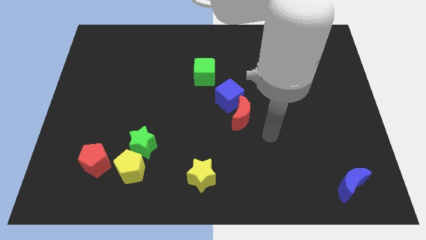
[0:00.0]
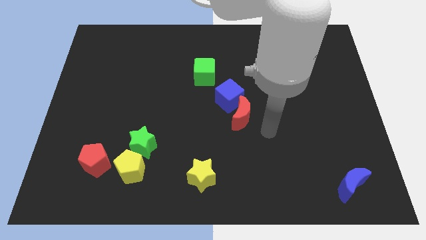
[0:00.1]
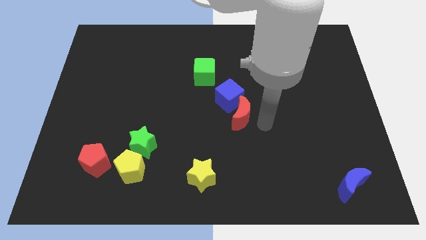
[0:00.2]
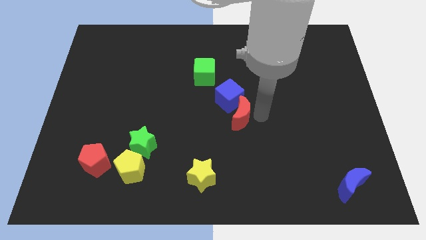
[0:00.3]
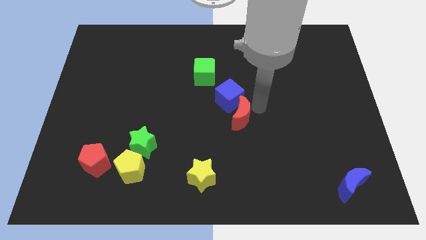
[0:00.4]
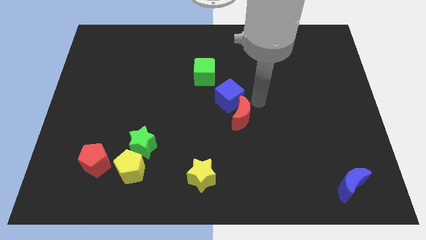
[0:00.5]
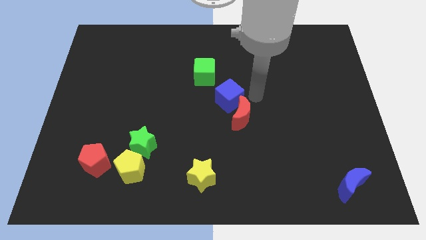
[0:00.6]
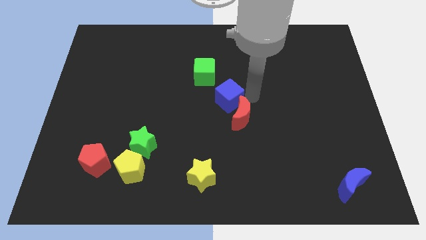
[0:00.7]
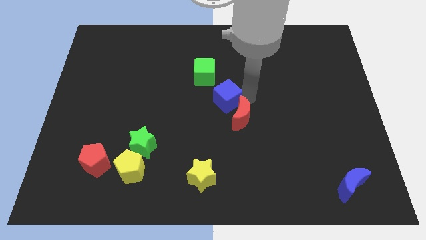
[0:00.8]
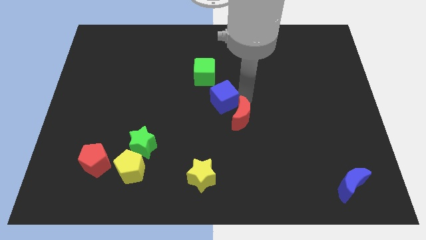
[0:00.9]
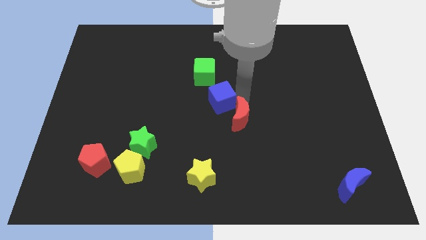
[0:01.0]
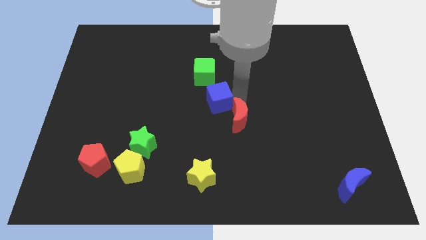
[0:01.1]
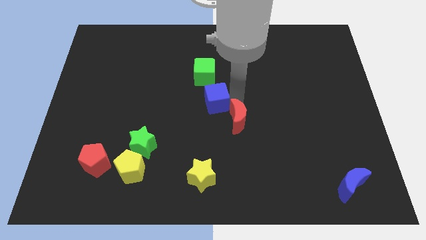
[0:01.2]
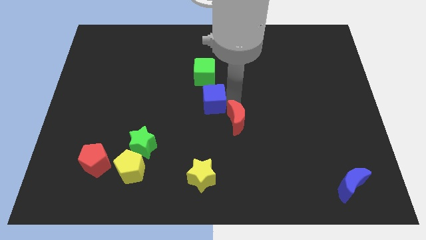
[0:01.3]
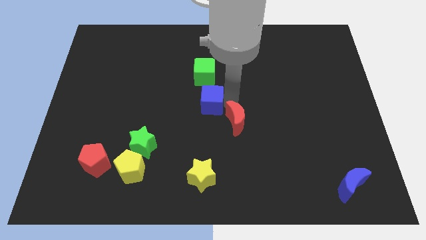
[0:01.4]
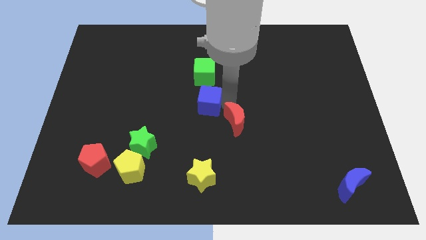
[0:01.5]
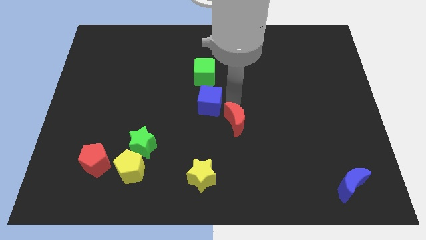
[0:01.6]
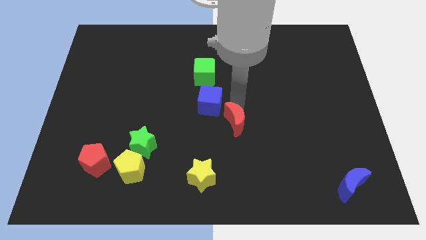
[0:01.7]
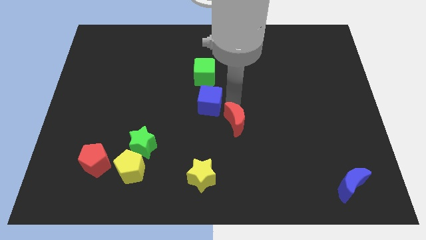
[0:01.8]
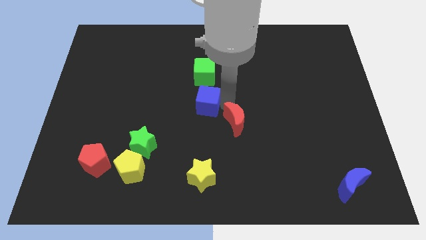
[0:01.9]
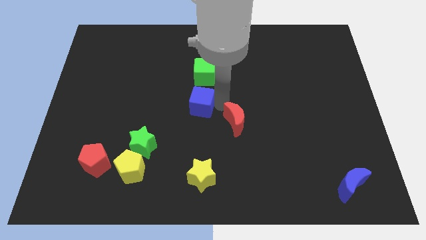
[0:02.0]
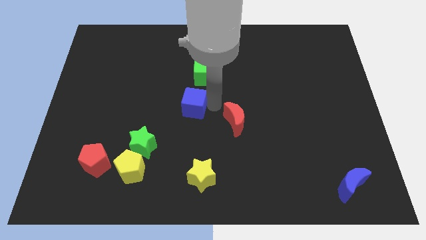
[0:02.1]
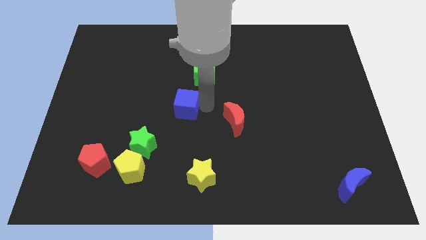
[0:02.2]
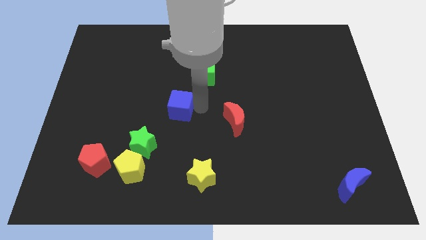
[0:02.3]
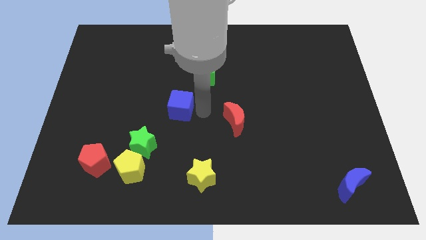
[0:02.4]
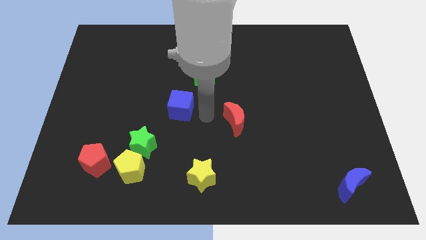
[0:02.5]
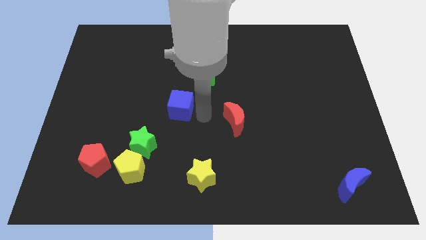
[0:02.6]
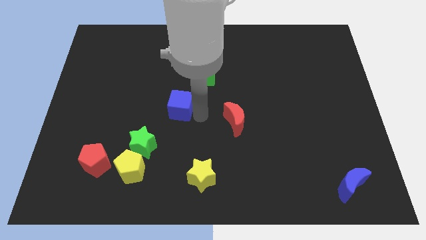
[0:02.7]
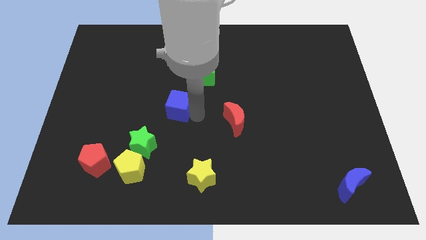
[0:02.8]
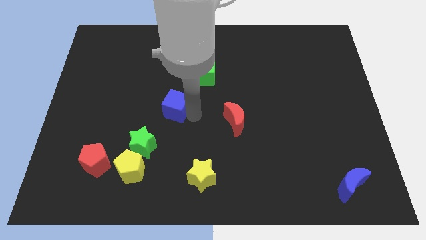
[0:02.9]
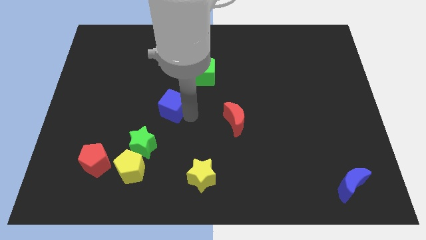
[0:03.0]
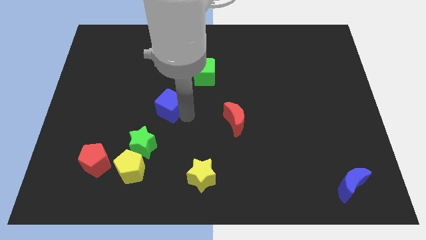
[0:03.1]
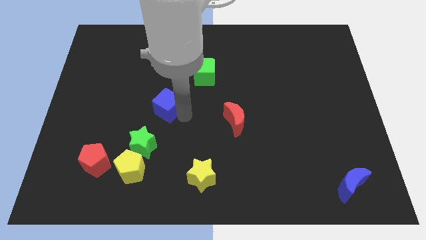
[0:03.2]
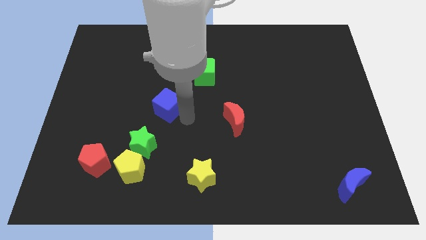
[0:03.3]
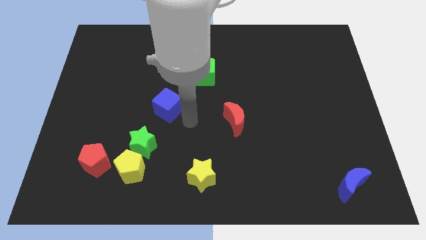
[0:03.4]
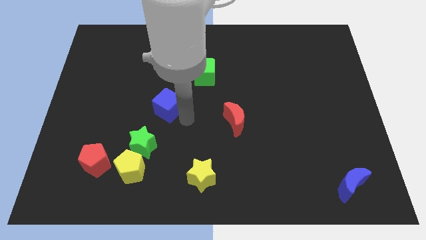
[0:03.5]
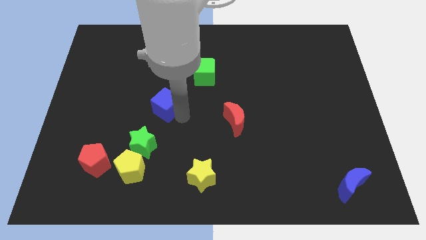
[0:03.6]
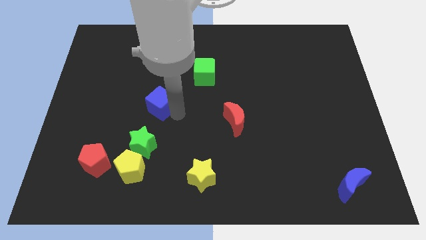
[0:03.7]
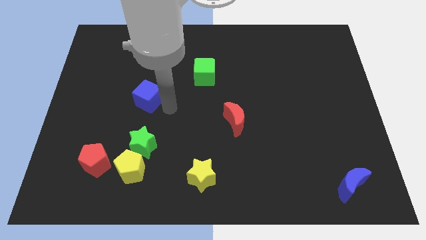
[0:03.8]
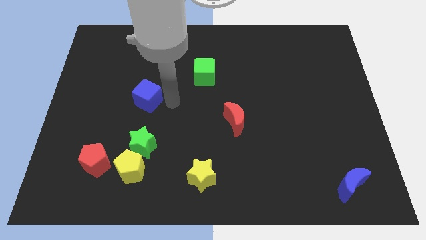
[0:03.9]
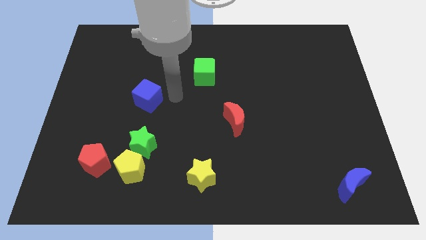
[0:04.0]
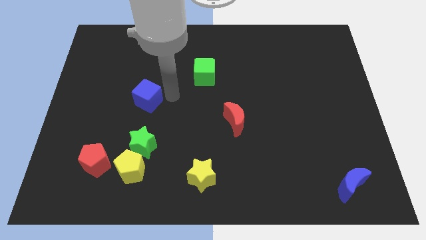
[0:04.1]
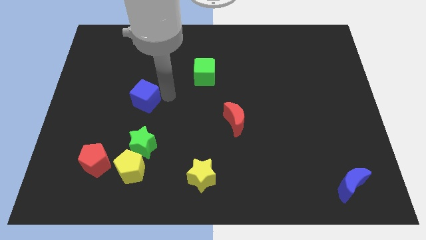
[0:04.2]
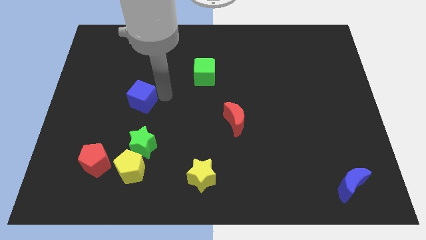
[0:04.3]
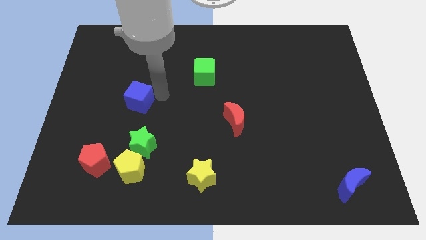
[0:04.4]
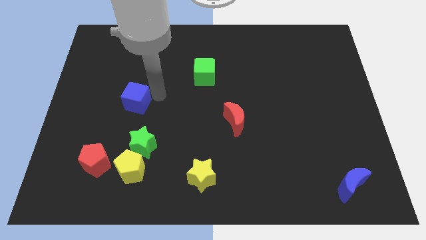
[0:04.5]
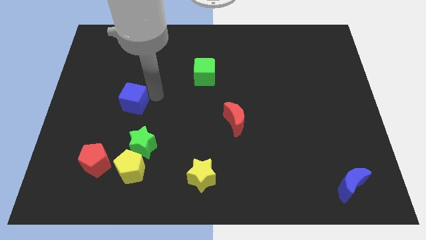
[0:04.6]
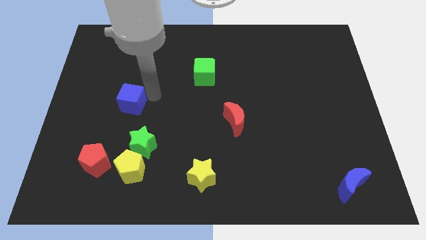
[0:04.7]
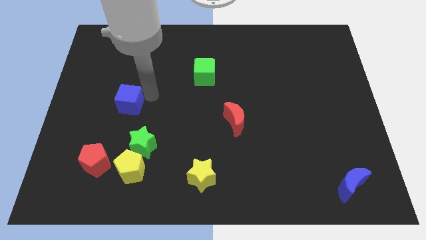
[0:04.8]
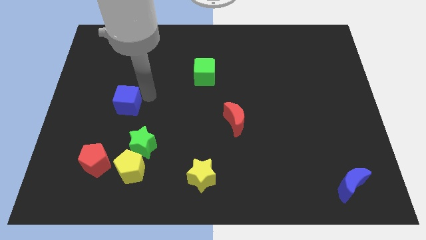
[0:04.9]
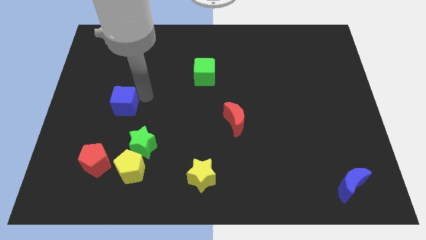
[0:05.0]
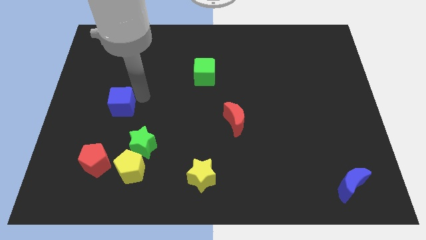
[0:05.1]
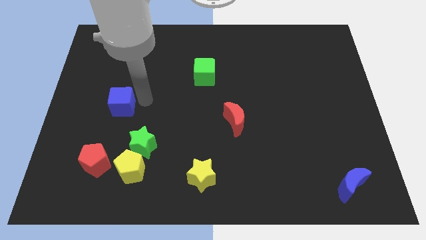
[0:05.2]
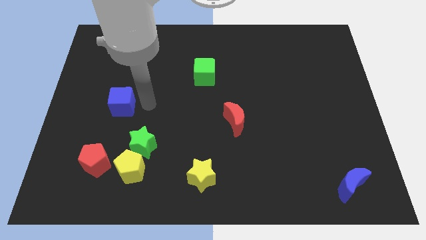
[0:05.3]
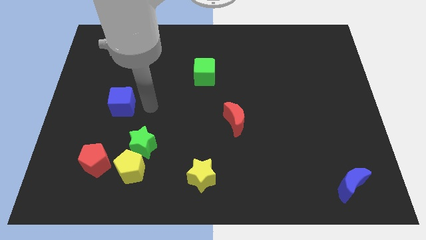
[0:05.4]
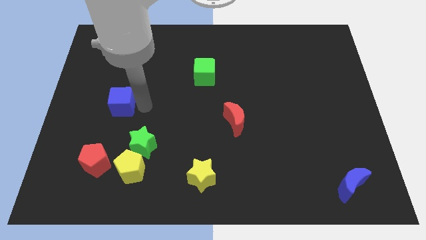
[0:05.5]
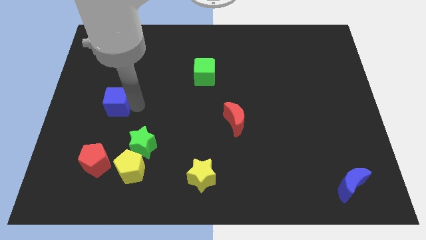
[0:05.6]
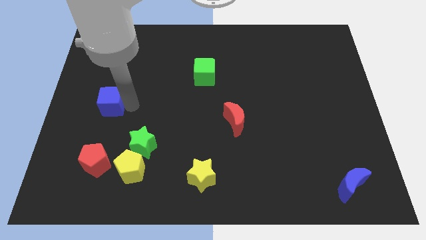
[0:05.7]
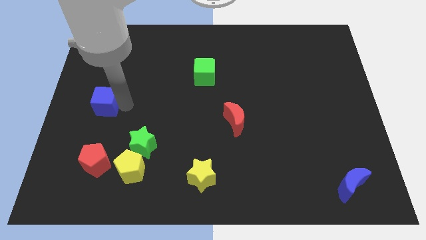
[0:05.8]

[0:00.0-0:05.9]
slide the blue cube to the center left

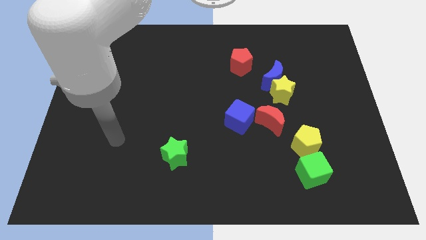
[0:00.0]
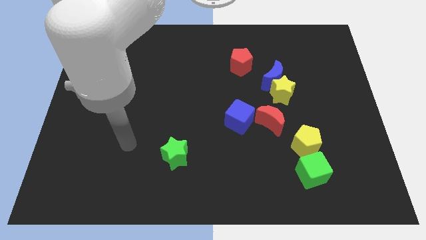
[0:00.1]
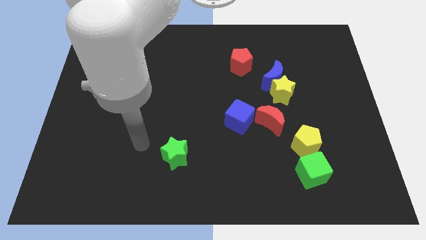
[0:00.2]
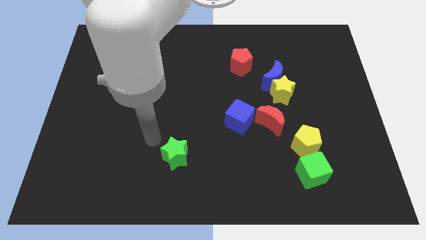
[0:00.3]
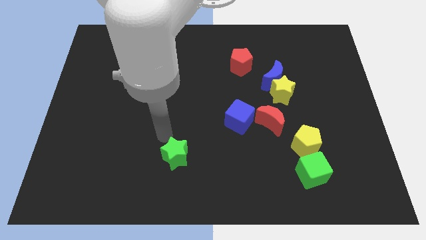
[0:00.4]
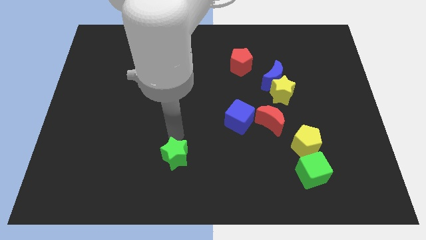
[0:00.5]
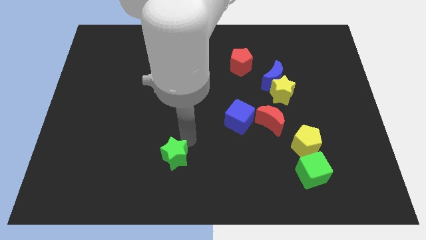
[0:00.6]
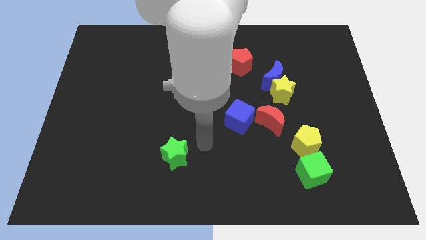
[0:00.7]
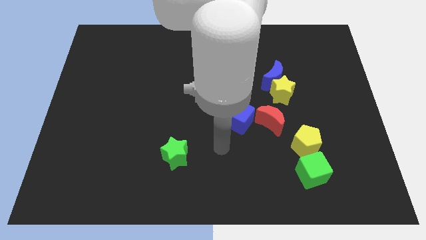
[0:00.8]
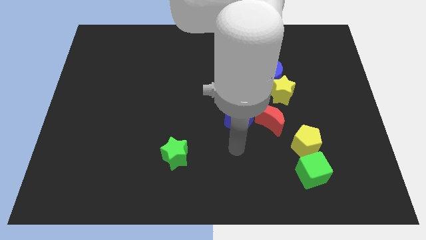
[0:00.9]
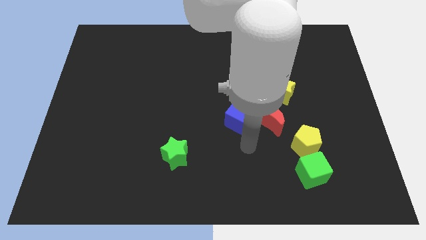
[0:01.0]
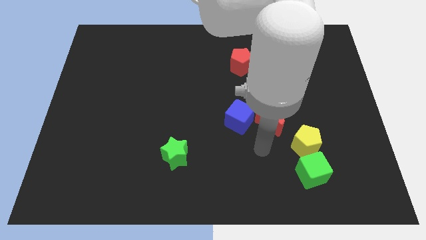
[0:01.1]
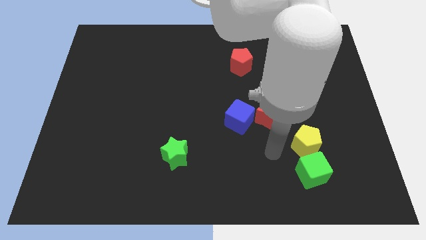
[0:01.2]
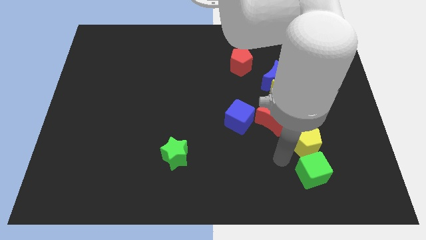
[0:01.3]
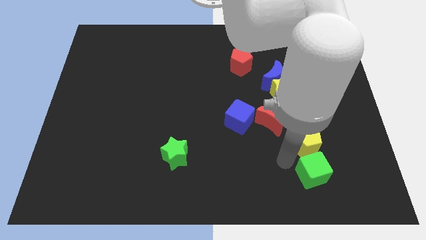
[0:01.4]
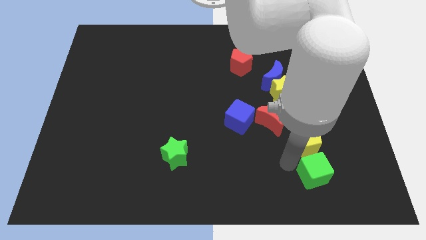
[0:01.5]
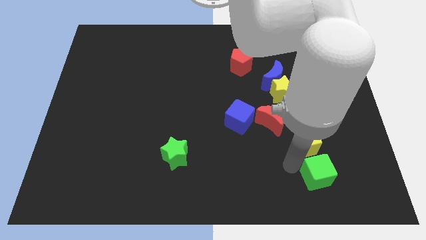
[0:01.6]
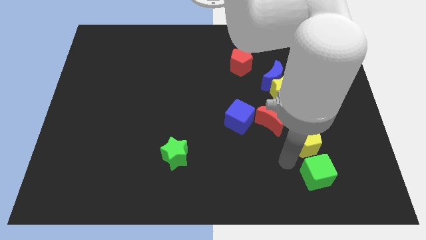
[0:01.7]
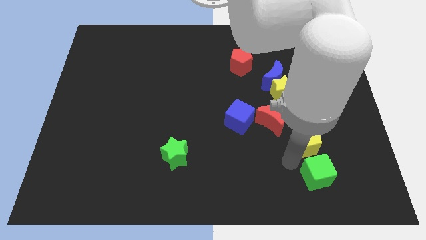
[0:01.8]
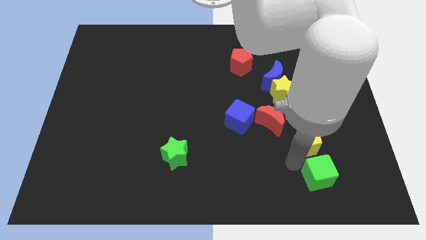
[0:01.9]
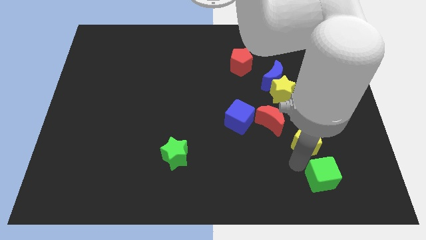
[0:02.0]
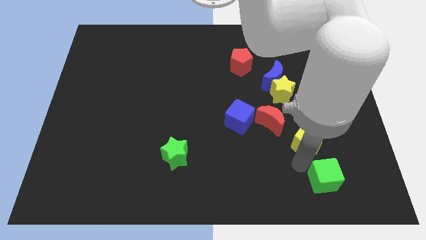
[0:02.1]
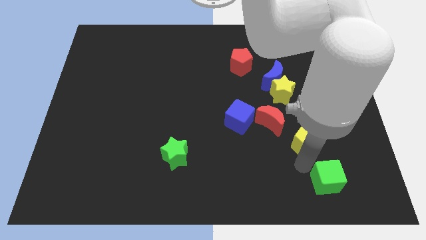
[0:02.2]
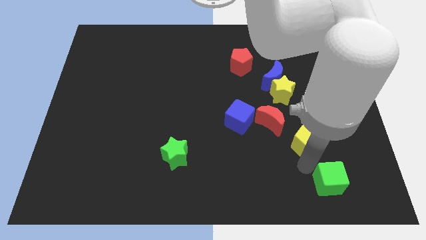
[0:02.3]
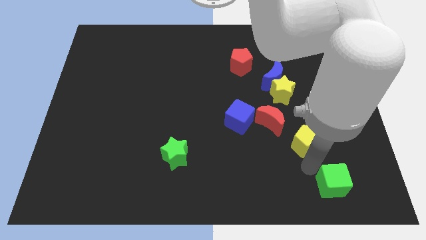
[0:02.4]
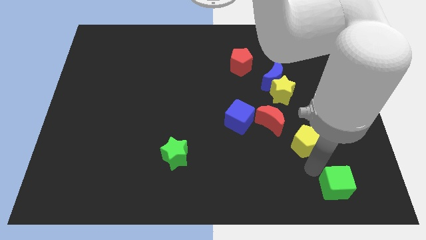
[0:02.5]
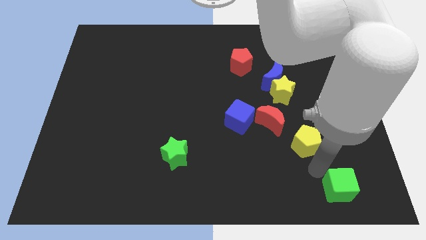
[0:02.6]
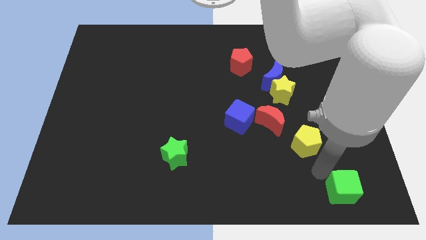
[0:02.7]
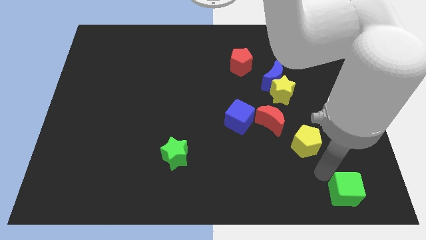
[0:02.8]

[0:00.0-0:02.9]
put the green cube to the bottom right corner
